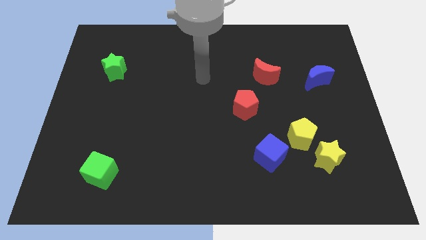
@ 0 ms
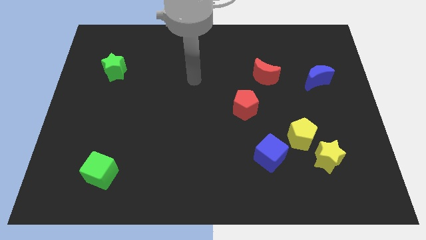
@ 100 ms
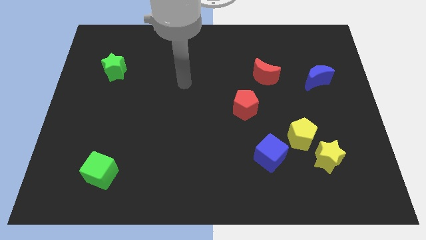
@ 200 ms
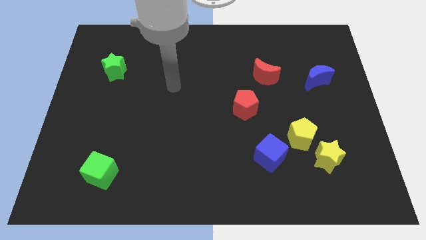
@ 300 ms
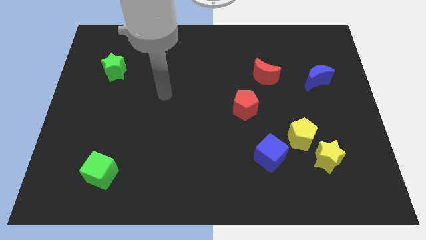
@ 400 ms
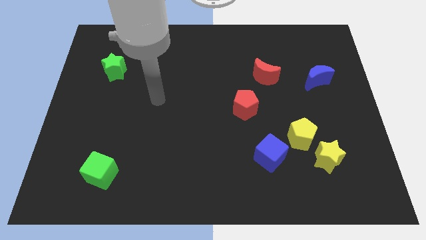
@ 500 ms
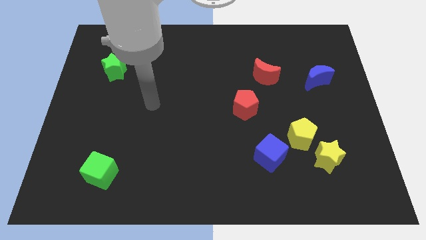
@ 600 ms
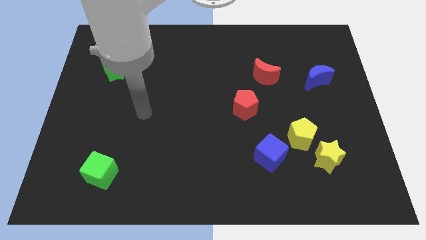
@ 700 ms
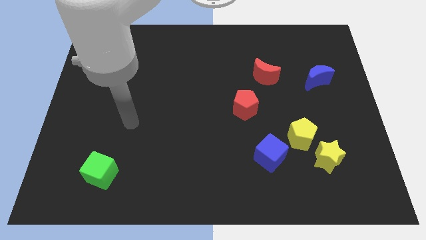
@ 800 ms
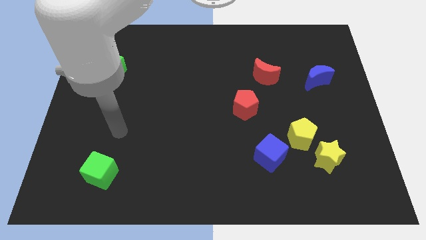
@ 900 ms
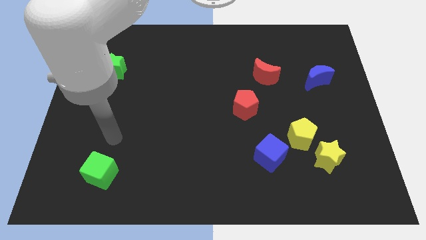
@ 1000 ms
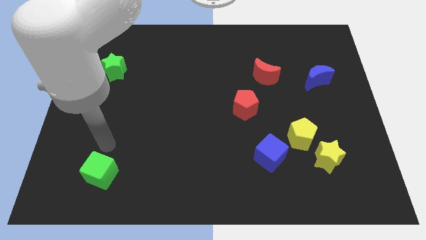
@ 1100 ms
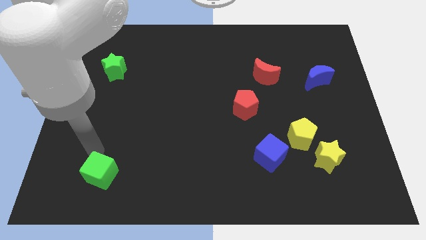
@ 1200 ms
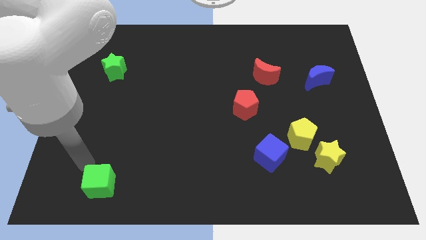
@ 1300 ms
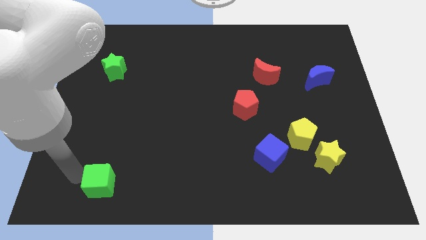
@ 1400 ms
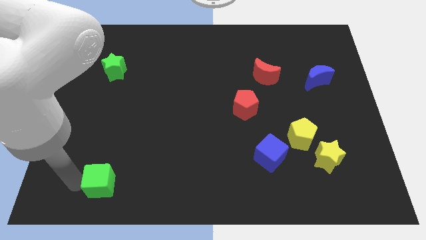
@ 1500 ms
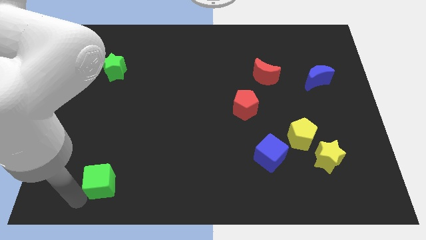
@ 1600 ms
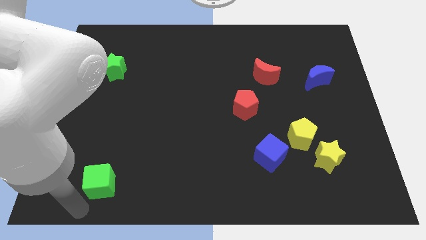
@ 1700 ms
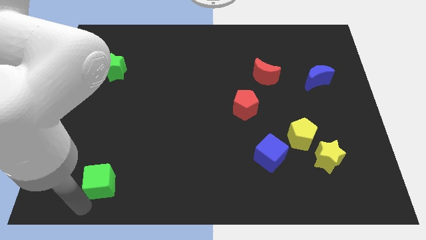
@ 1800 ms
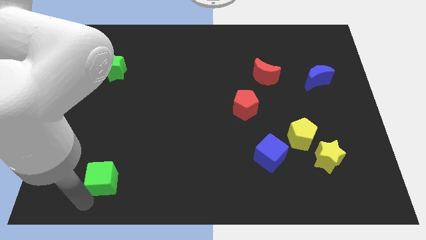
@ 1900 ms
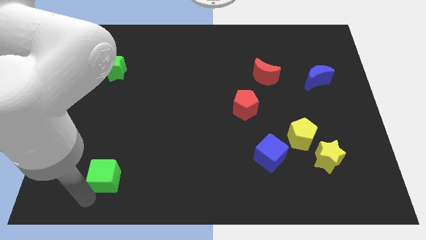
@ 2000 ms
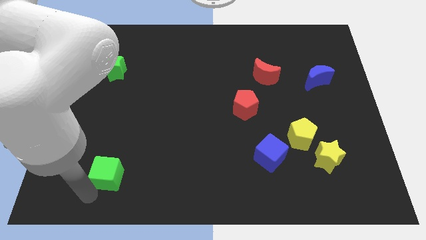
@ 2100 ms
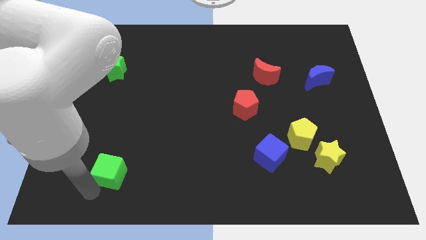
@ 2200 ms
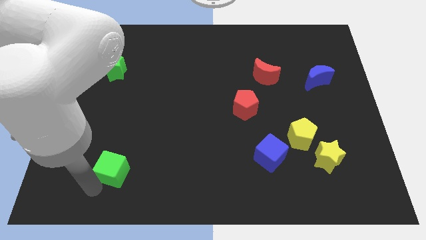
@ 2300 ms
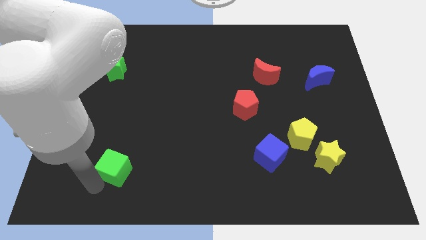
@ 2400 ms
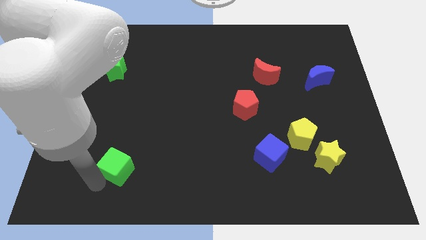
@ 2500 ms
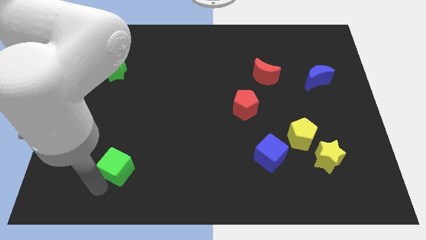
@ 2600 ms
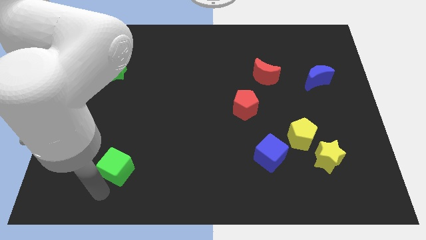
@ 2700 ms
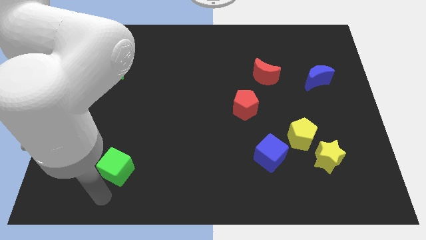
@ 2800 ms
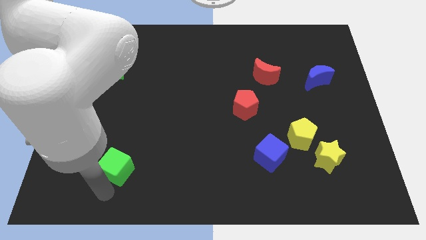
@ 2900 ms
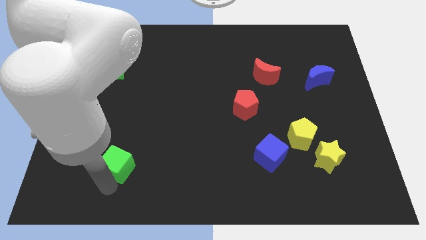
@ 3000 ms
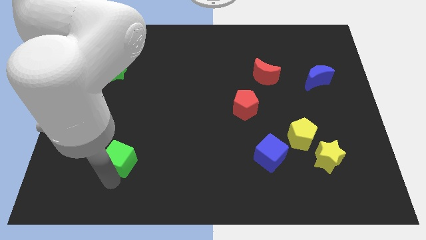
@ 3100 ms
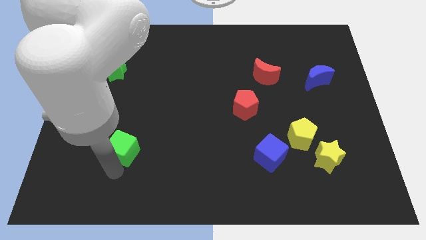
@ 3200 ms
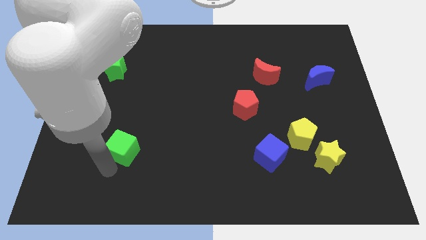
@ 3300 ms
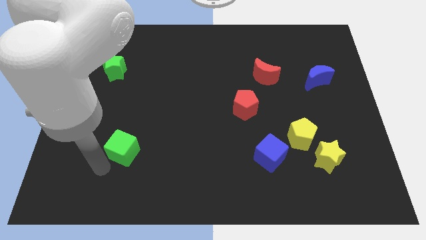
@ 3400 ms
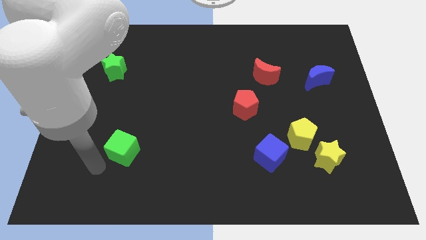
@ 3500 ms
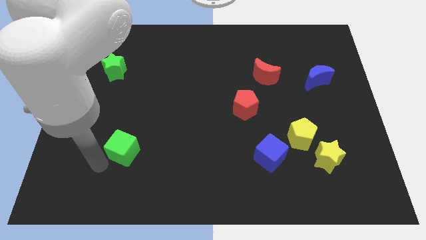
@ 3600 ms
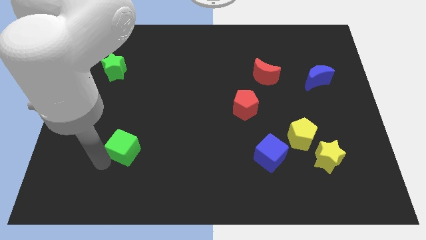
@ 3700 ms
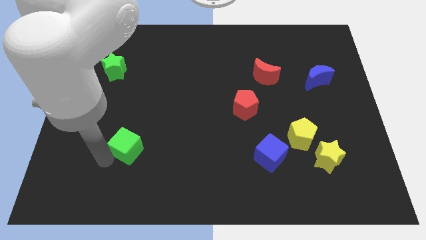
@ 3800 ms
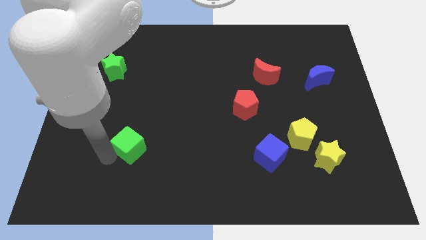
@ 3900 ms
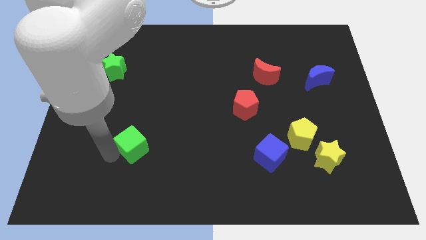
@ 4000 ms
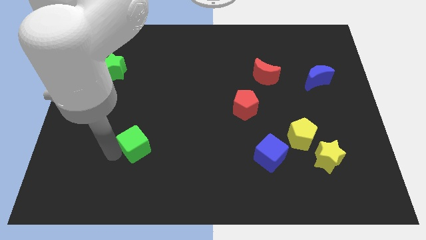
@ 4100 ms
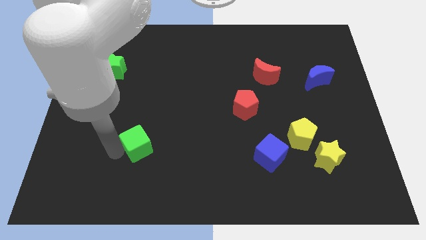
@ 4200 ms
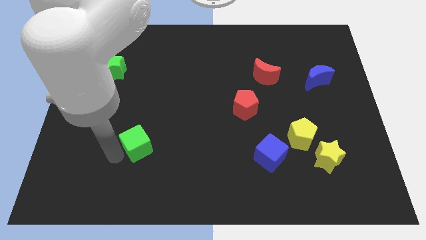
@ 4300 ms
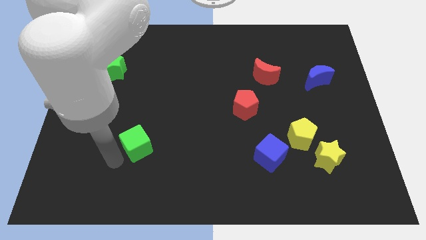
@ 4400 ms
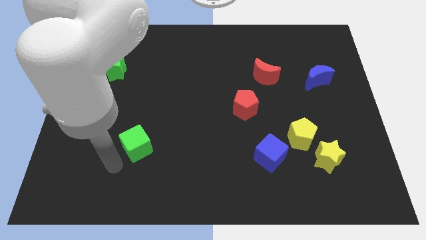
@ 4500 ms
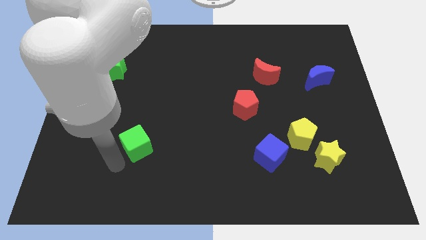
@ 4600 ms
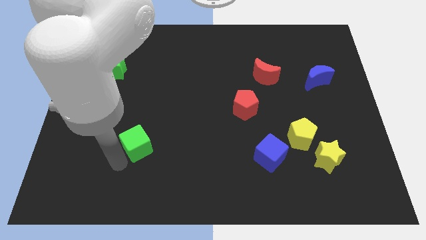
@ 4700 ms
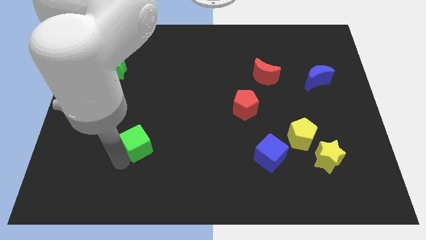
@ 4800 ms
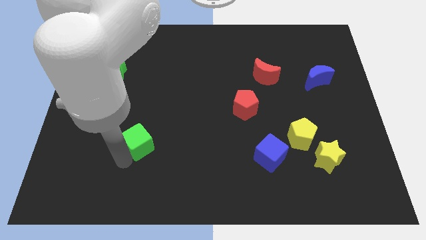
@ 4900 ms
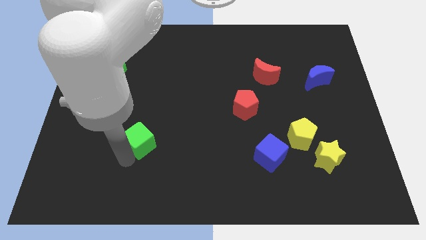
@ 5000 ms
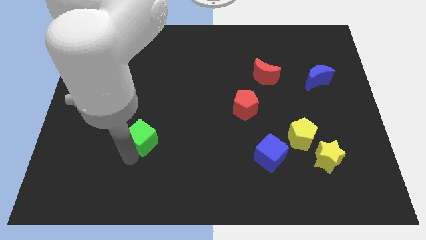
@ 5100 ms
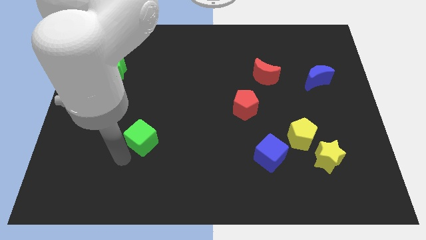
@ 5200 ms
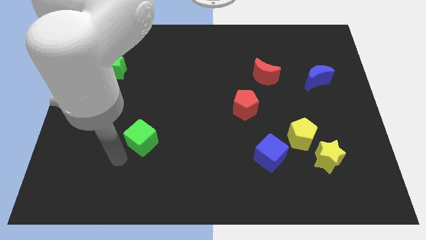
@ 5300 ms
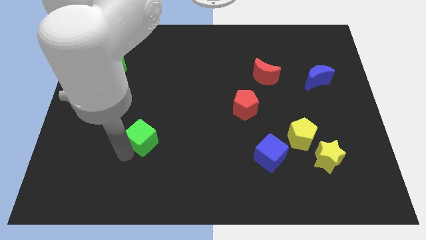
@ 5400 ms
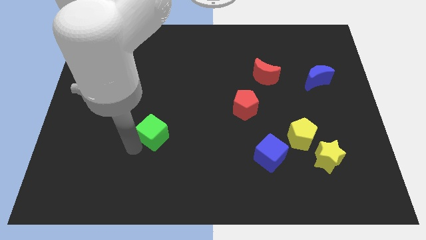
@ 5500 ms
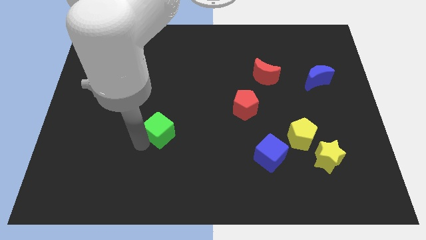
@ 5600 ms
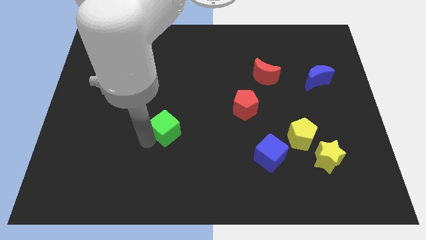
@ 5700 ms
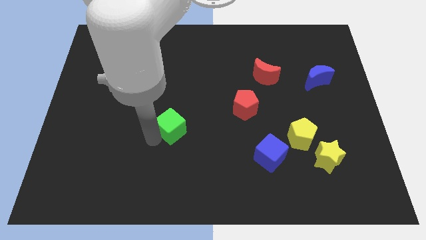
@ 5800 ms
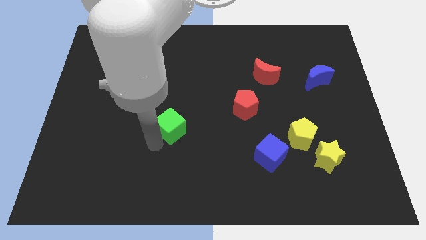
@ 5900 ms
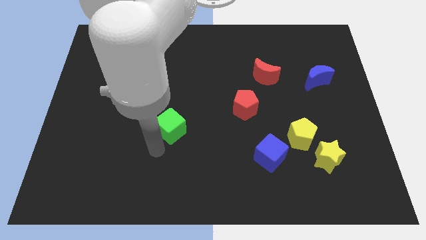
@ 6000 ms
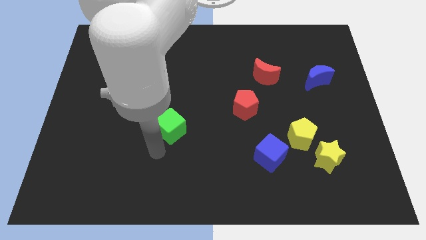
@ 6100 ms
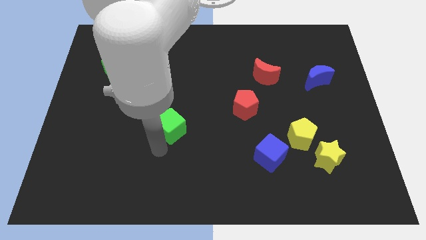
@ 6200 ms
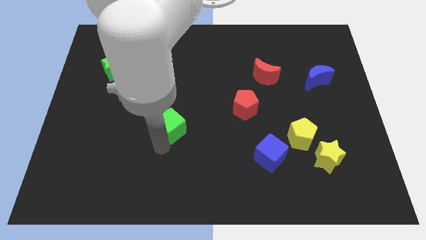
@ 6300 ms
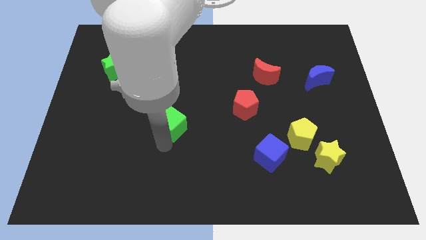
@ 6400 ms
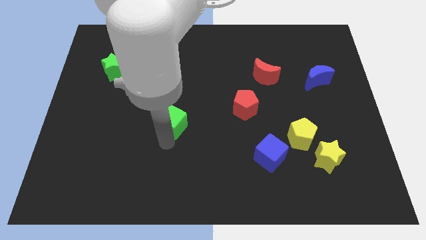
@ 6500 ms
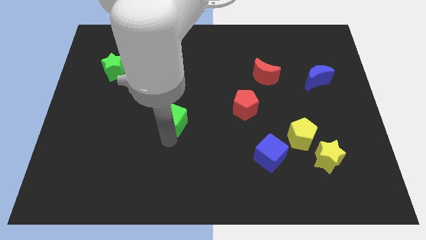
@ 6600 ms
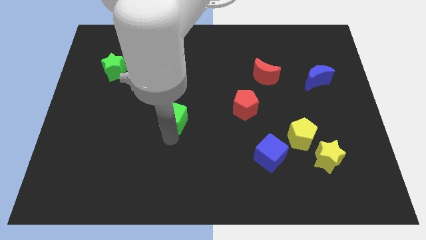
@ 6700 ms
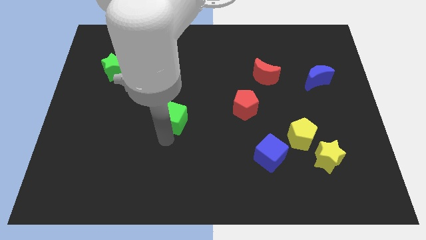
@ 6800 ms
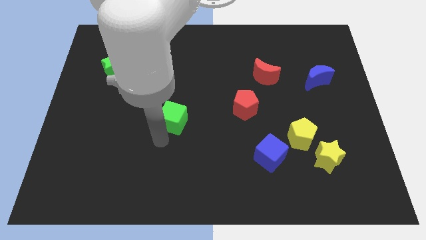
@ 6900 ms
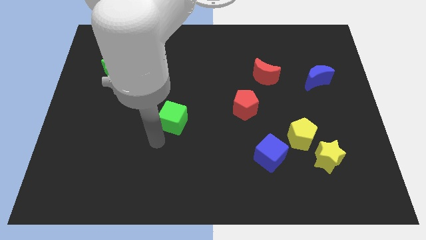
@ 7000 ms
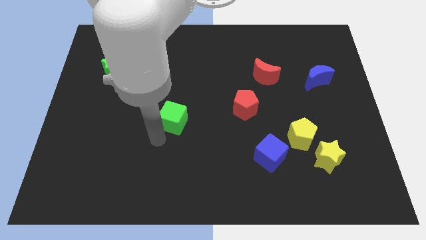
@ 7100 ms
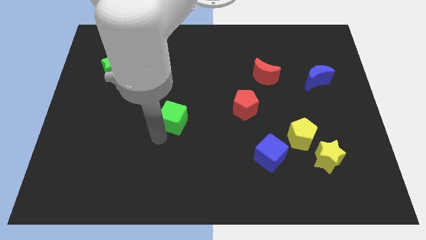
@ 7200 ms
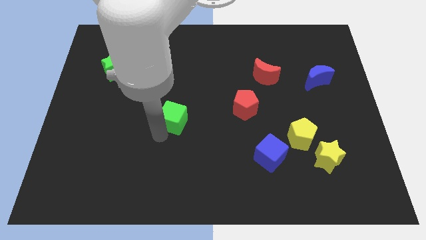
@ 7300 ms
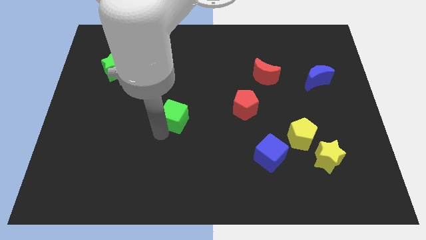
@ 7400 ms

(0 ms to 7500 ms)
move the green cube up and then to the right

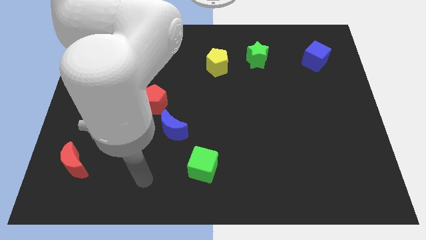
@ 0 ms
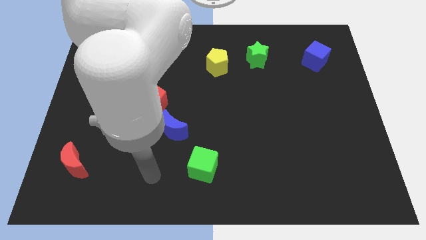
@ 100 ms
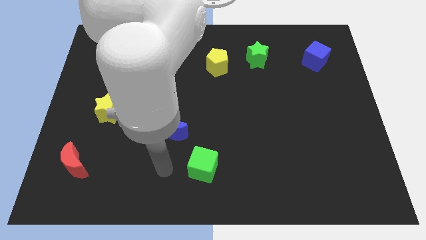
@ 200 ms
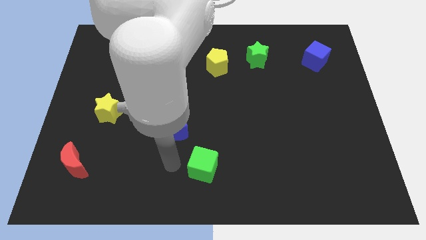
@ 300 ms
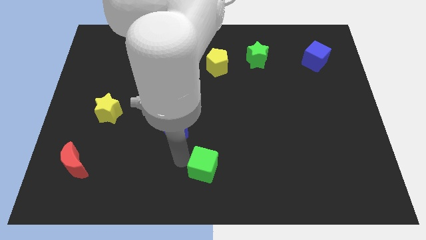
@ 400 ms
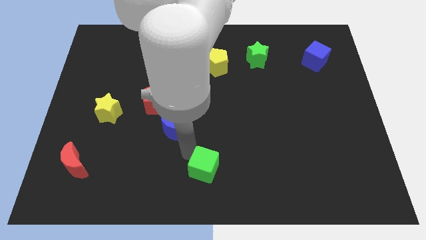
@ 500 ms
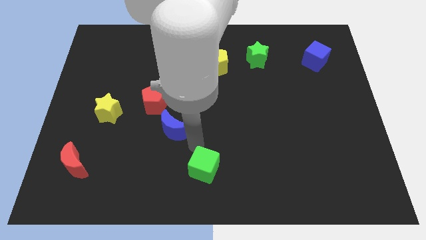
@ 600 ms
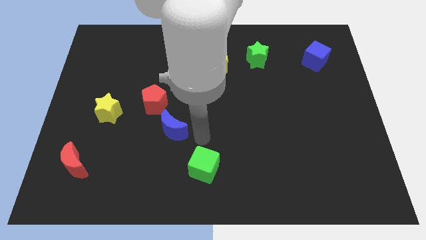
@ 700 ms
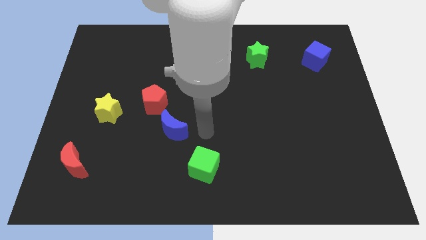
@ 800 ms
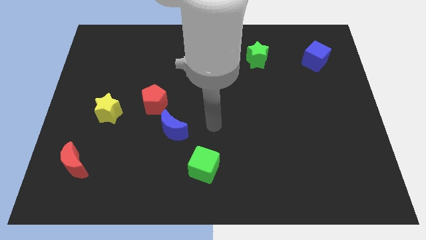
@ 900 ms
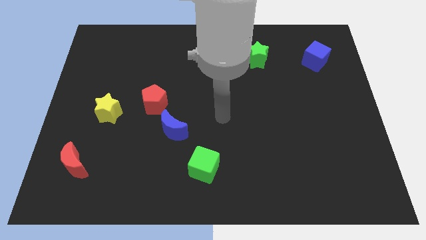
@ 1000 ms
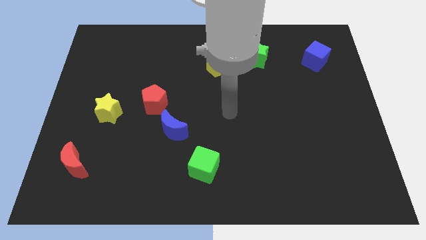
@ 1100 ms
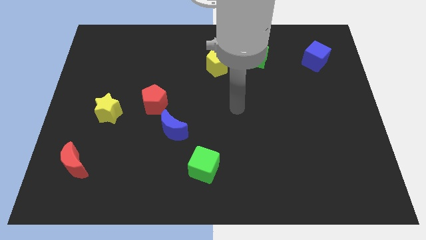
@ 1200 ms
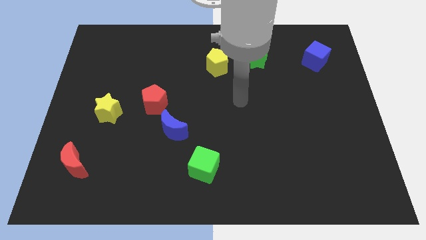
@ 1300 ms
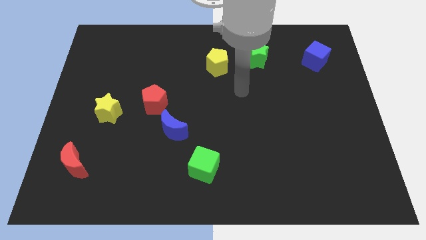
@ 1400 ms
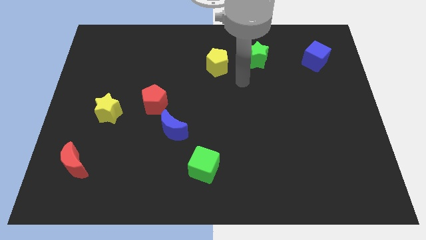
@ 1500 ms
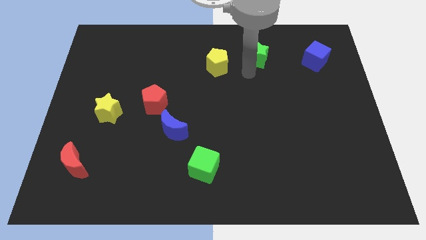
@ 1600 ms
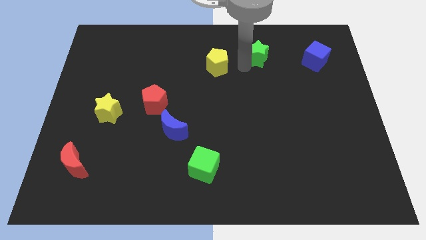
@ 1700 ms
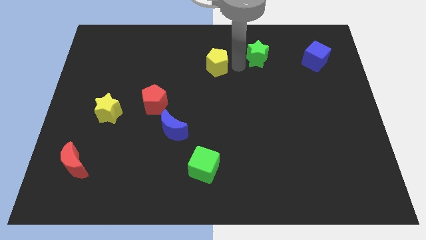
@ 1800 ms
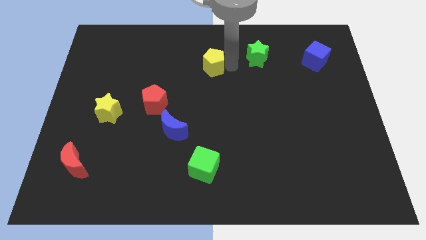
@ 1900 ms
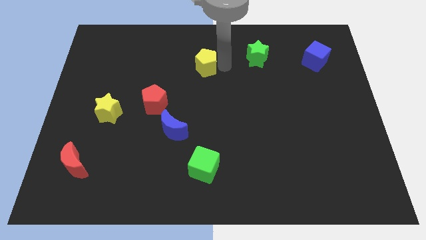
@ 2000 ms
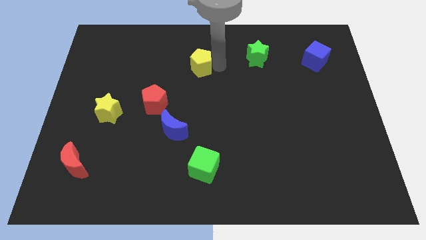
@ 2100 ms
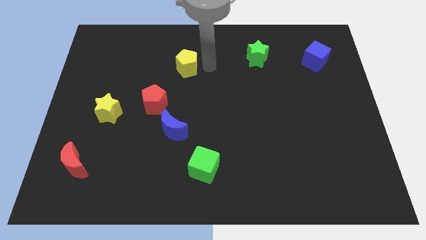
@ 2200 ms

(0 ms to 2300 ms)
move the yellow pentagon a little bit to the left
